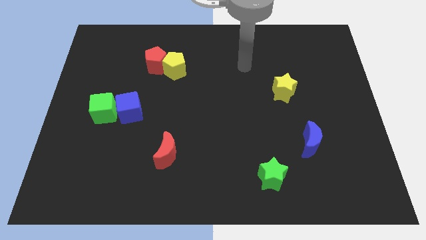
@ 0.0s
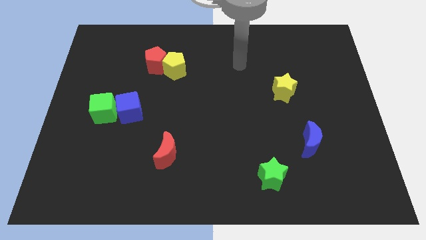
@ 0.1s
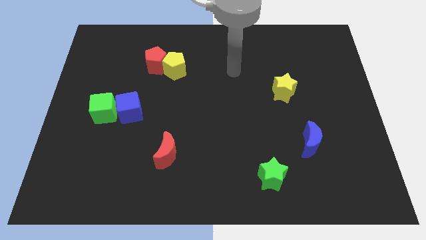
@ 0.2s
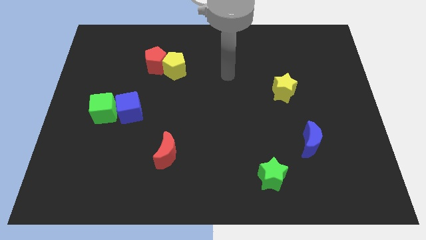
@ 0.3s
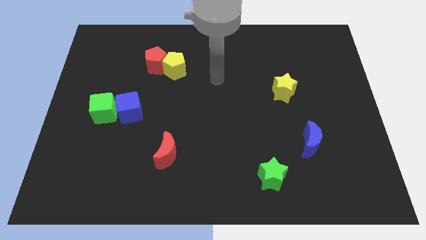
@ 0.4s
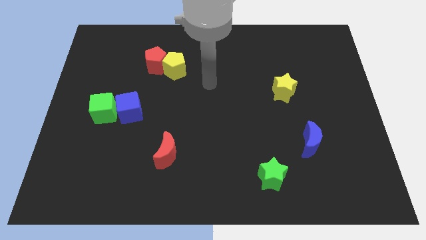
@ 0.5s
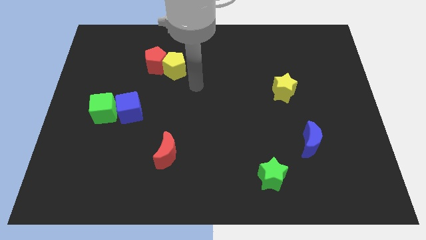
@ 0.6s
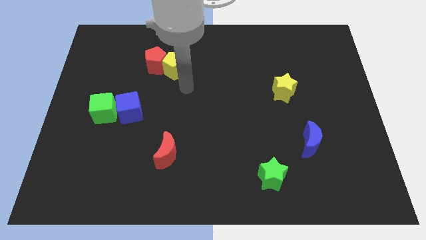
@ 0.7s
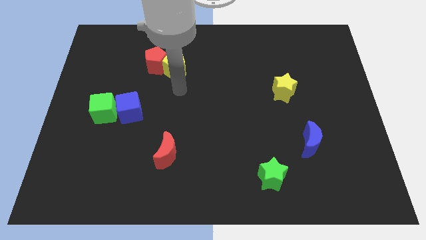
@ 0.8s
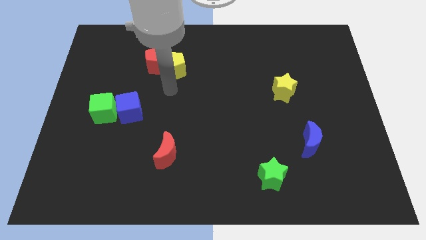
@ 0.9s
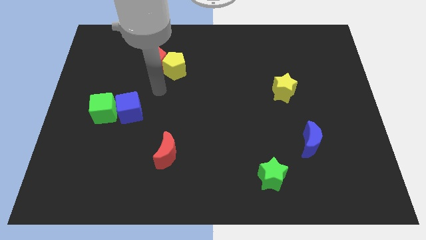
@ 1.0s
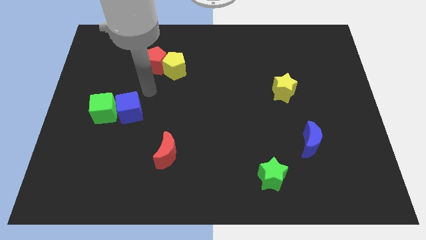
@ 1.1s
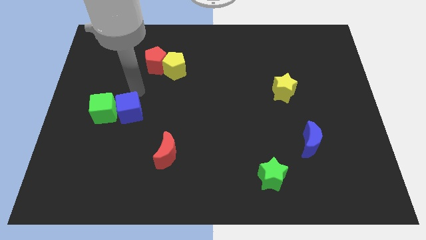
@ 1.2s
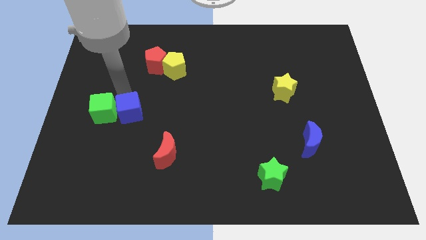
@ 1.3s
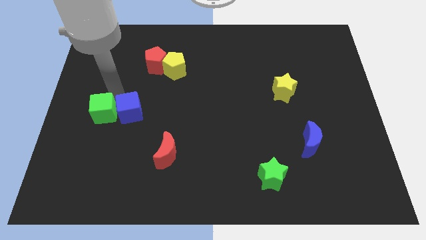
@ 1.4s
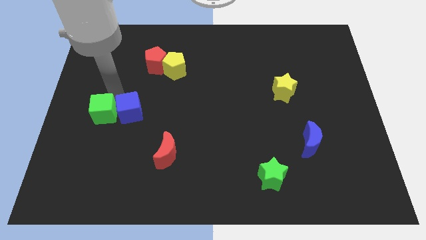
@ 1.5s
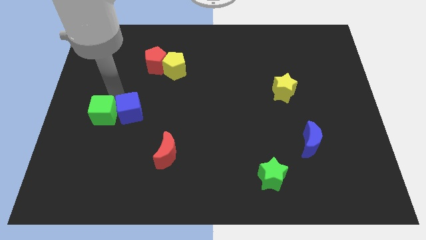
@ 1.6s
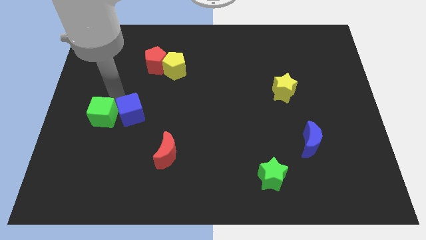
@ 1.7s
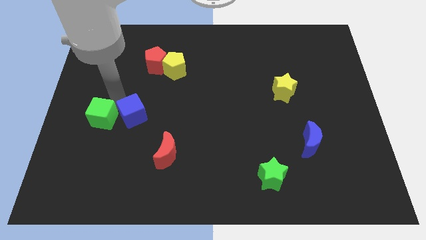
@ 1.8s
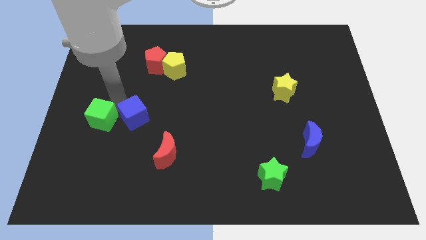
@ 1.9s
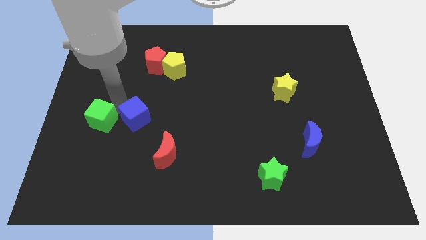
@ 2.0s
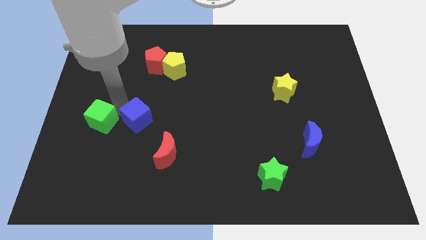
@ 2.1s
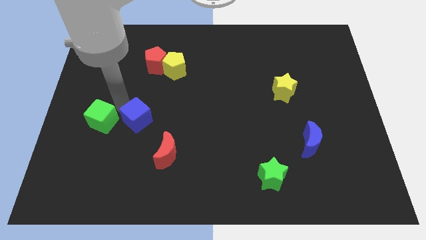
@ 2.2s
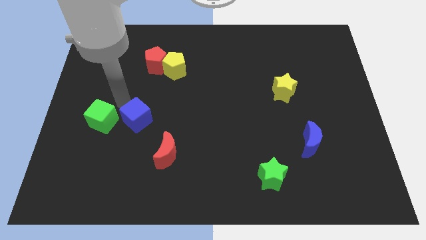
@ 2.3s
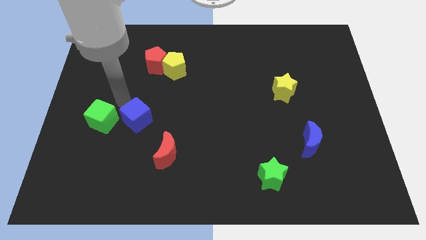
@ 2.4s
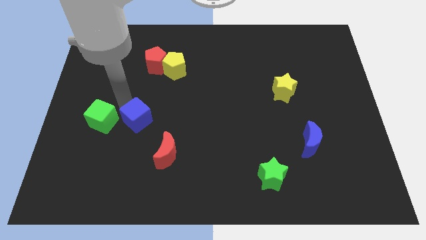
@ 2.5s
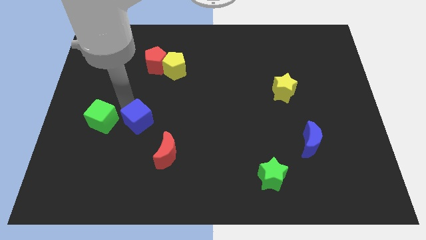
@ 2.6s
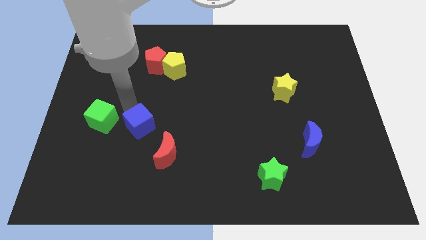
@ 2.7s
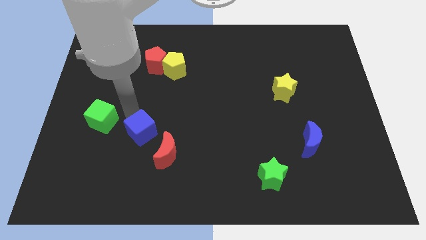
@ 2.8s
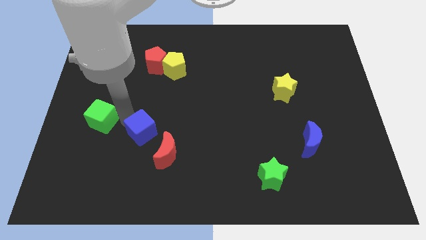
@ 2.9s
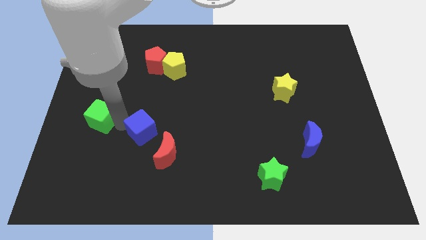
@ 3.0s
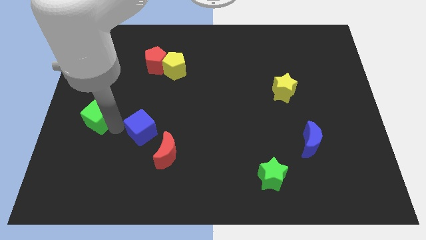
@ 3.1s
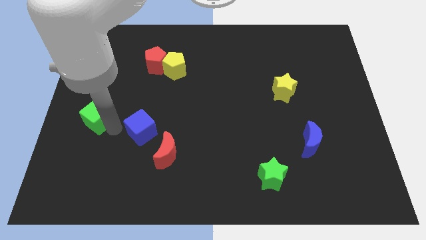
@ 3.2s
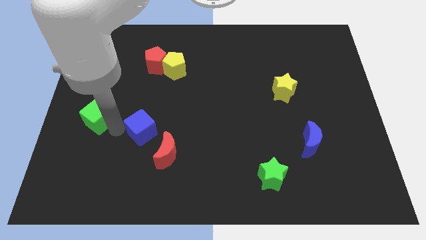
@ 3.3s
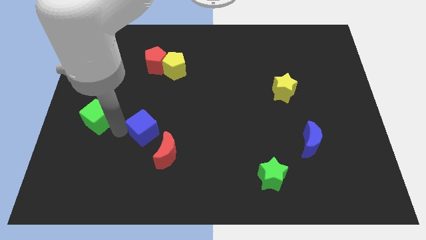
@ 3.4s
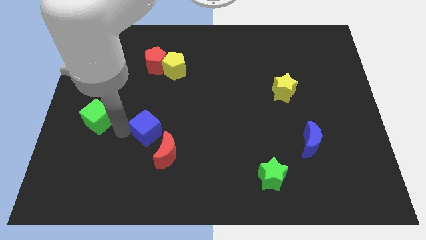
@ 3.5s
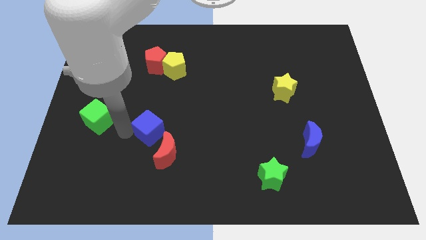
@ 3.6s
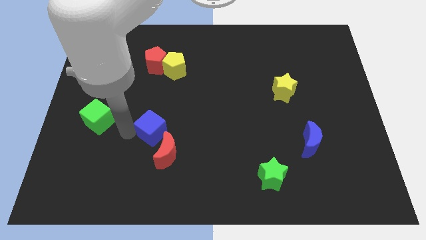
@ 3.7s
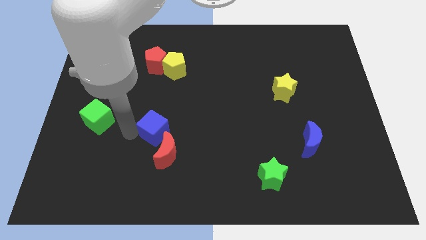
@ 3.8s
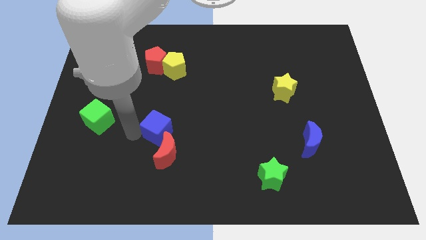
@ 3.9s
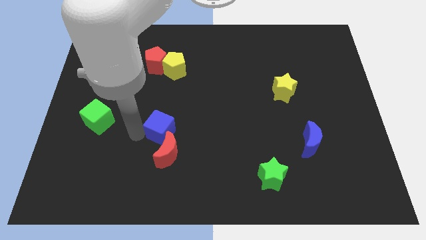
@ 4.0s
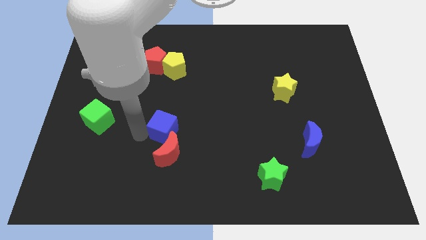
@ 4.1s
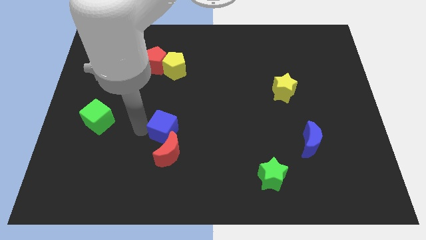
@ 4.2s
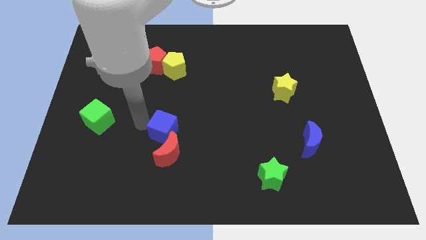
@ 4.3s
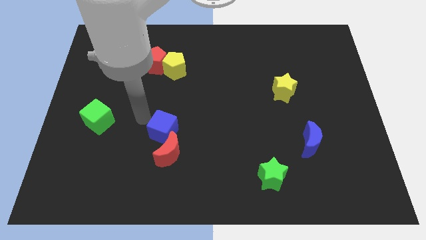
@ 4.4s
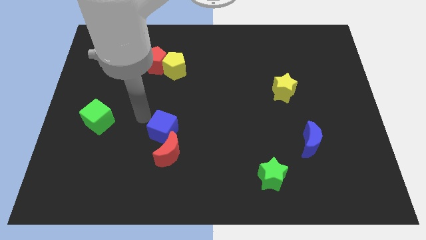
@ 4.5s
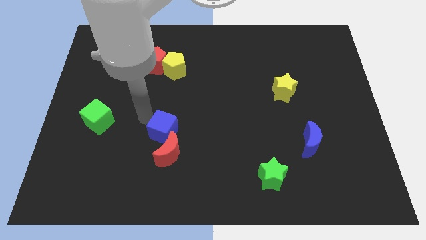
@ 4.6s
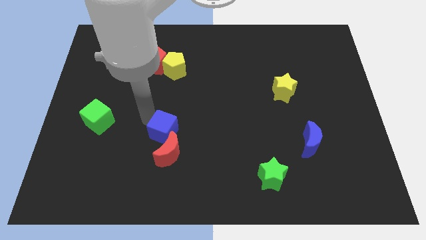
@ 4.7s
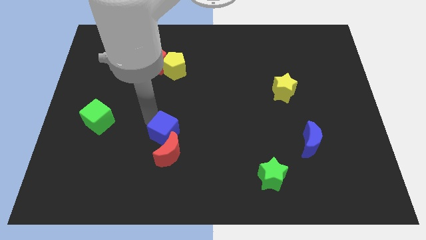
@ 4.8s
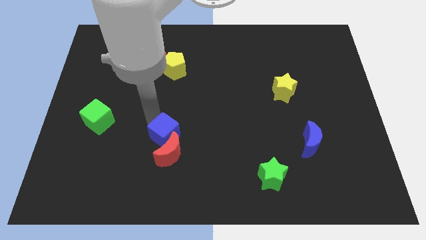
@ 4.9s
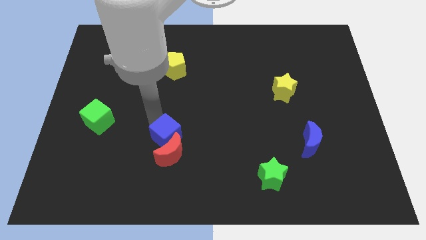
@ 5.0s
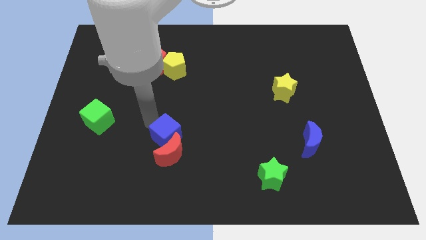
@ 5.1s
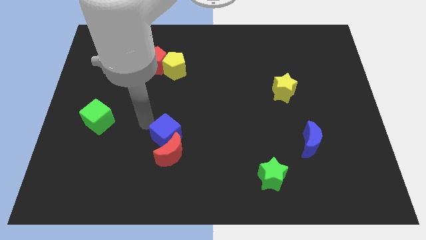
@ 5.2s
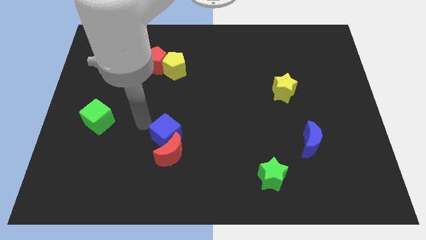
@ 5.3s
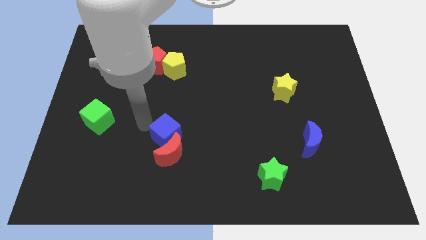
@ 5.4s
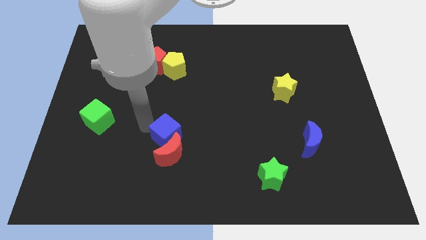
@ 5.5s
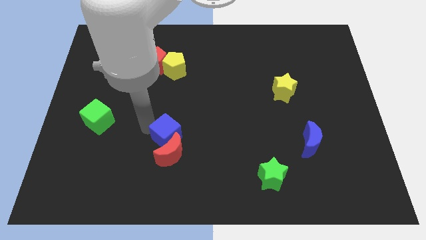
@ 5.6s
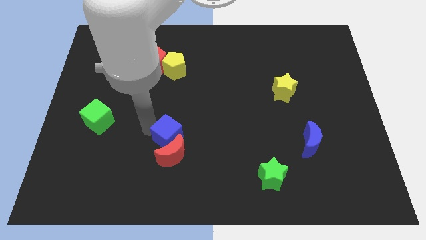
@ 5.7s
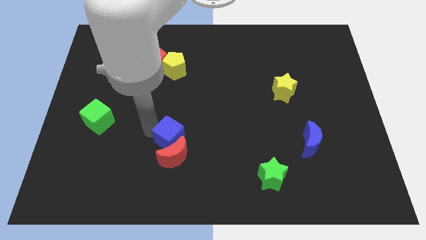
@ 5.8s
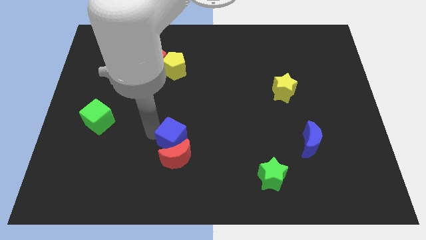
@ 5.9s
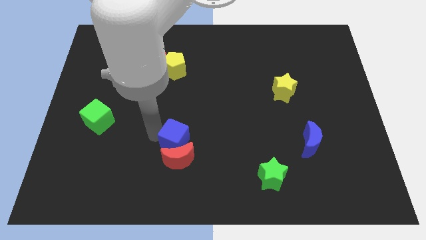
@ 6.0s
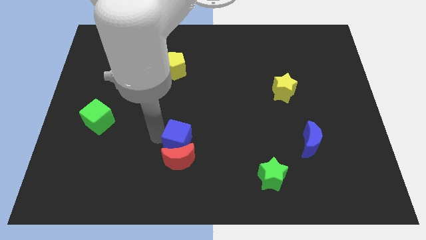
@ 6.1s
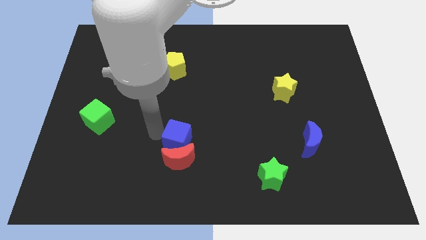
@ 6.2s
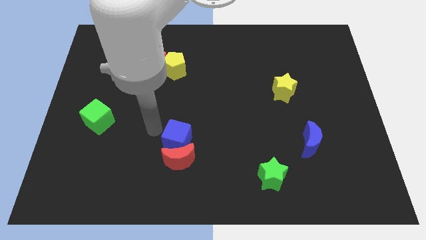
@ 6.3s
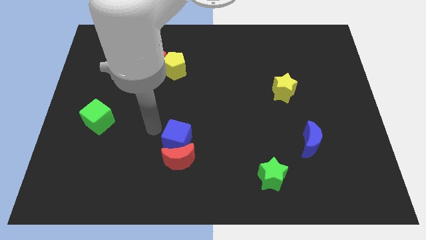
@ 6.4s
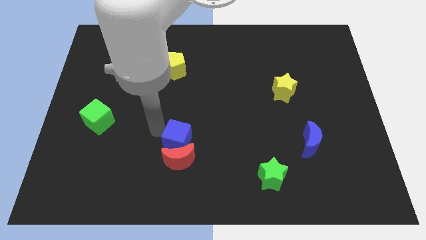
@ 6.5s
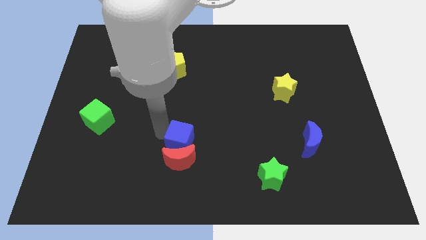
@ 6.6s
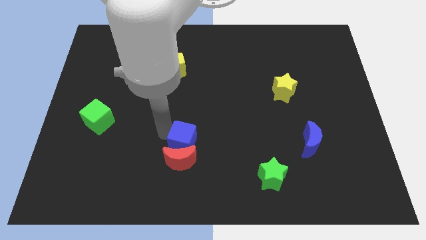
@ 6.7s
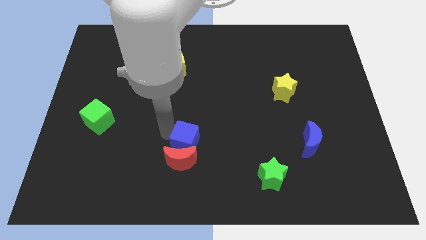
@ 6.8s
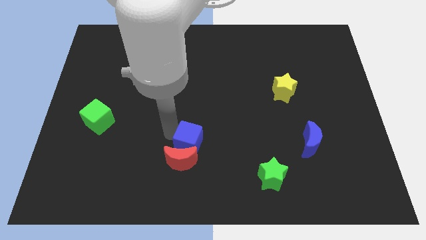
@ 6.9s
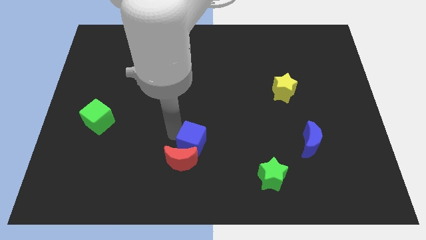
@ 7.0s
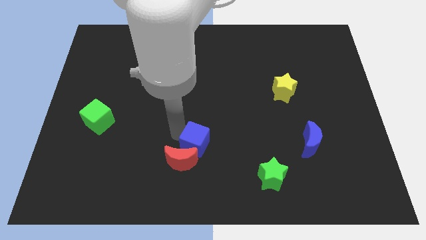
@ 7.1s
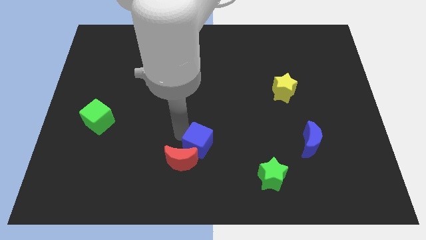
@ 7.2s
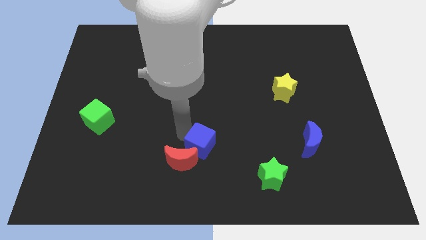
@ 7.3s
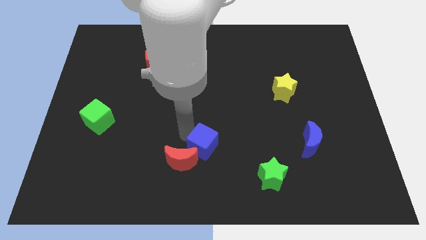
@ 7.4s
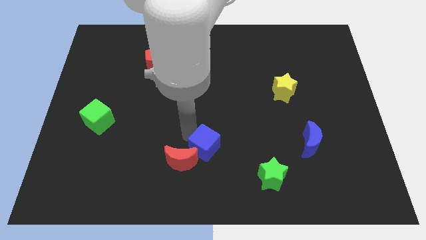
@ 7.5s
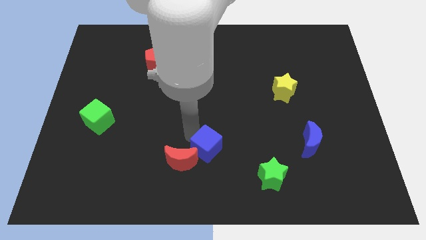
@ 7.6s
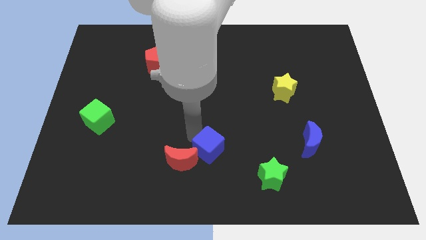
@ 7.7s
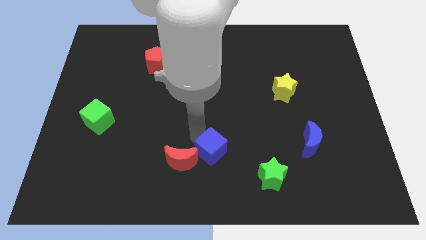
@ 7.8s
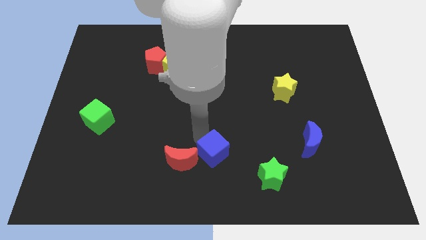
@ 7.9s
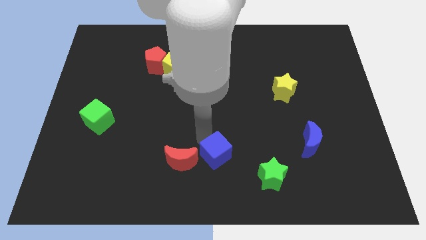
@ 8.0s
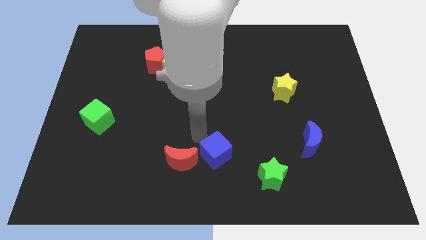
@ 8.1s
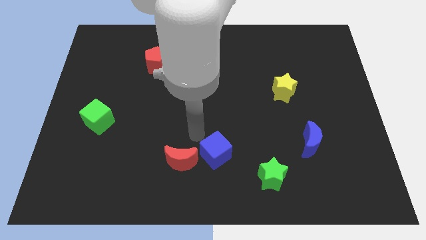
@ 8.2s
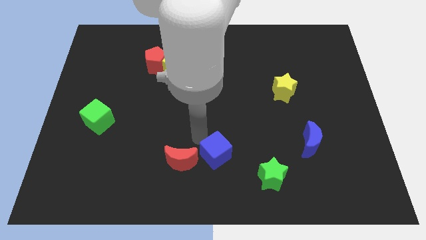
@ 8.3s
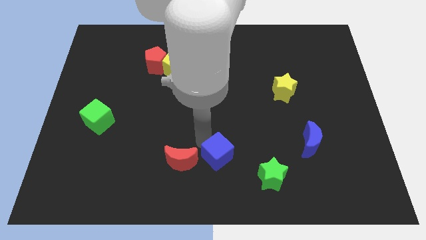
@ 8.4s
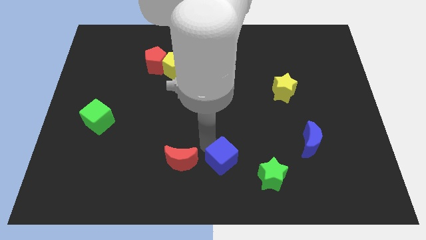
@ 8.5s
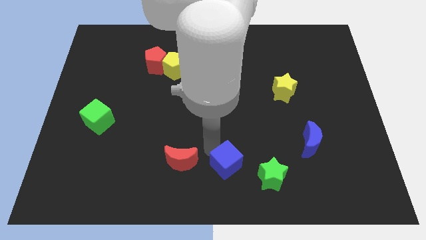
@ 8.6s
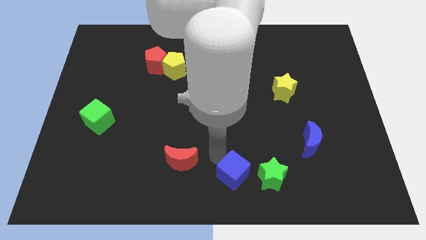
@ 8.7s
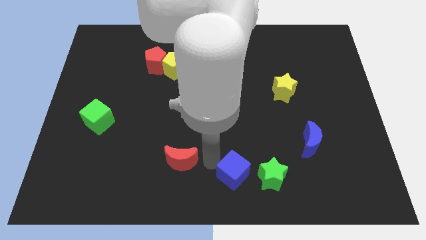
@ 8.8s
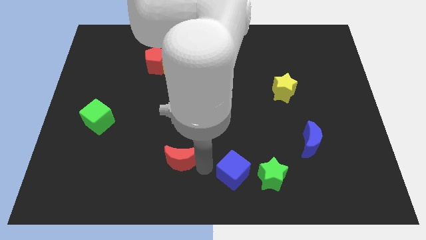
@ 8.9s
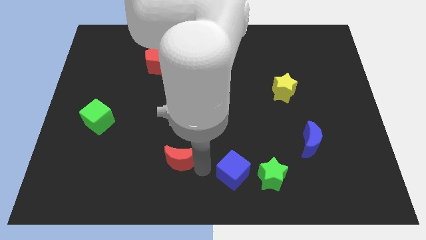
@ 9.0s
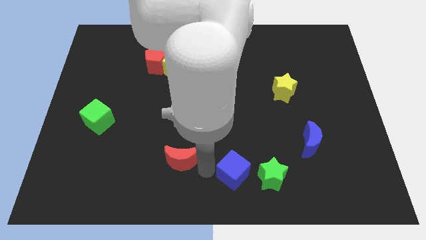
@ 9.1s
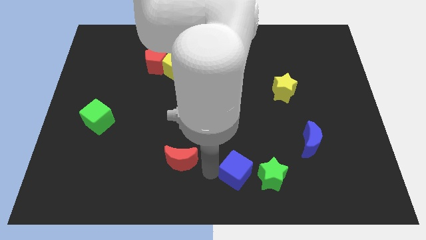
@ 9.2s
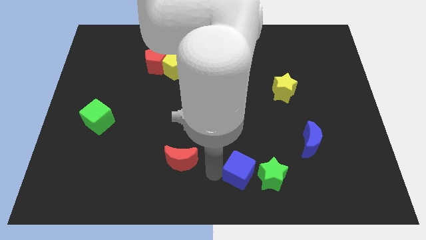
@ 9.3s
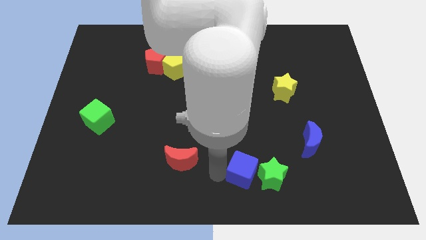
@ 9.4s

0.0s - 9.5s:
put the blue cube next to the green star
